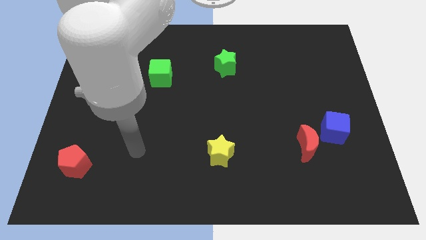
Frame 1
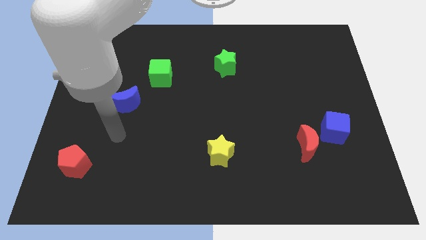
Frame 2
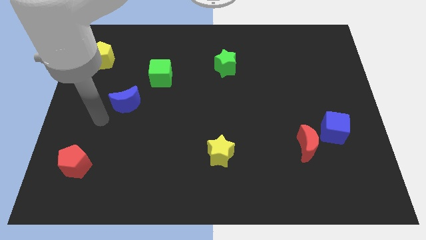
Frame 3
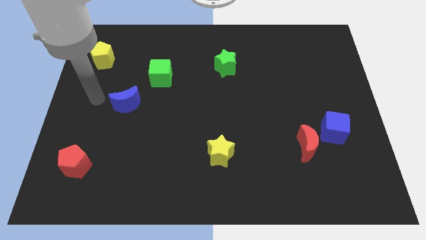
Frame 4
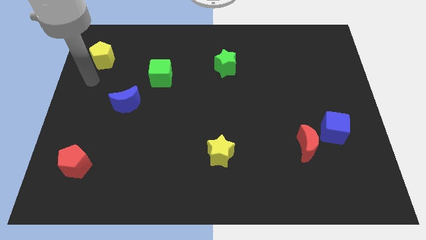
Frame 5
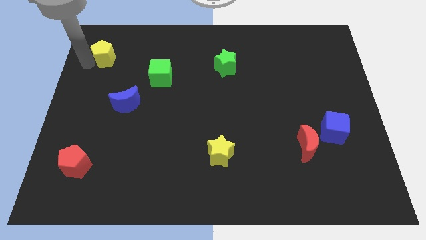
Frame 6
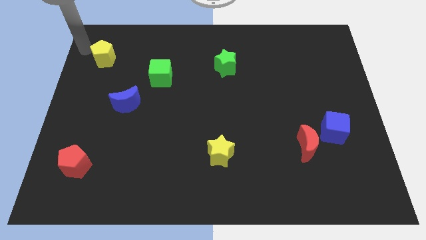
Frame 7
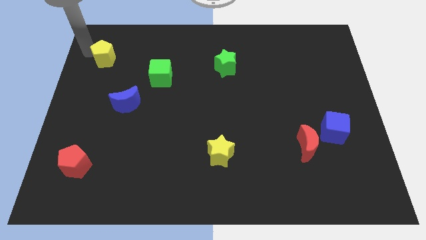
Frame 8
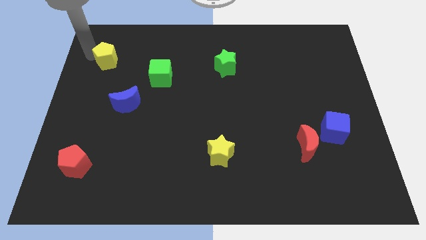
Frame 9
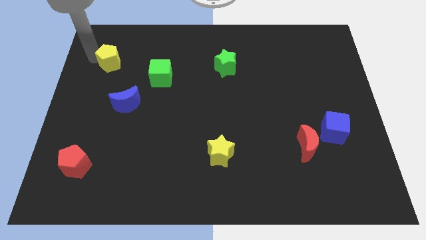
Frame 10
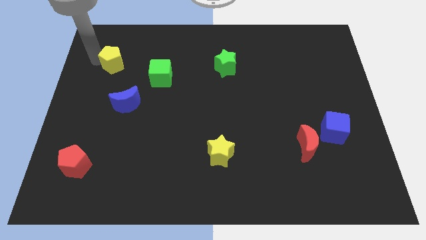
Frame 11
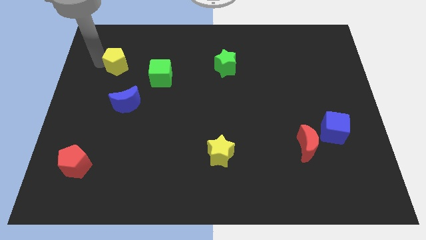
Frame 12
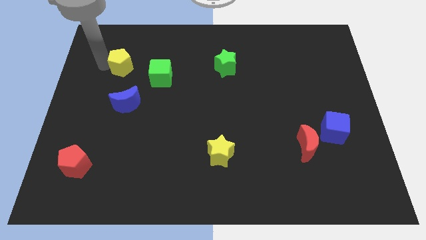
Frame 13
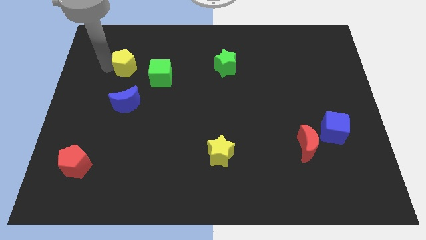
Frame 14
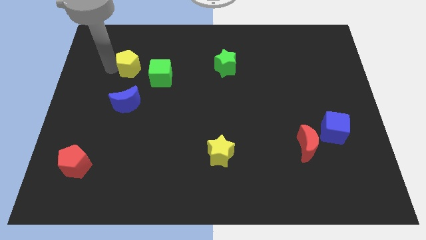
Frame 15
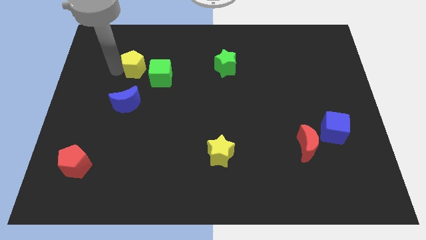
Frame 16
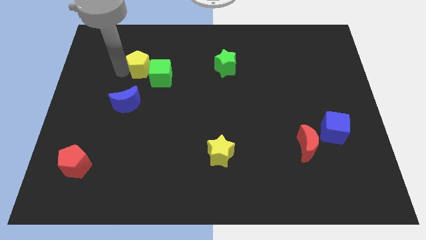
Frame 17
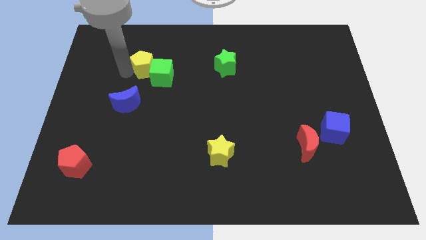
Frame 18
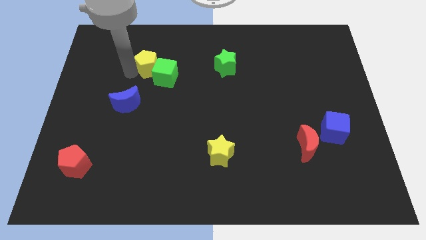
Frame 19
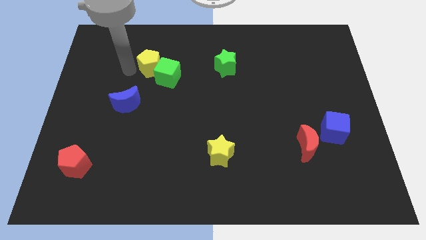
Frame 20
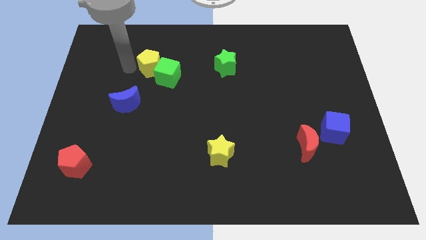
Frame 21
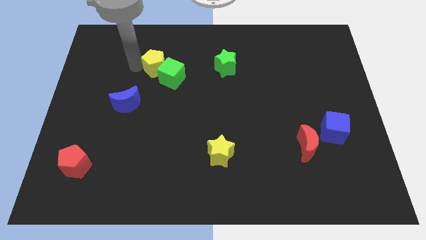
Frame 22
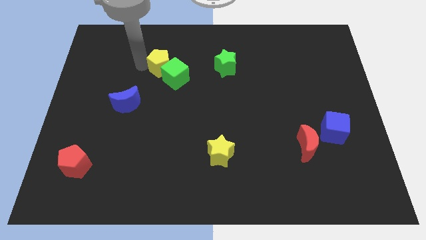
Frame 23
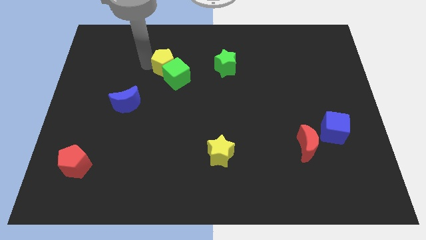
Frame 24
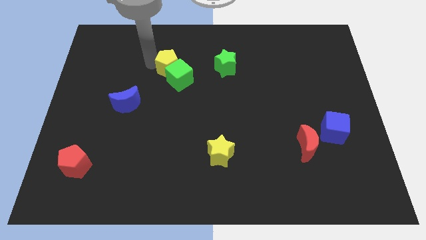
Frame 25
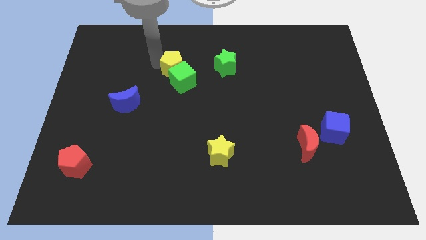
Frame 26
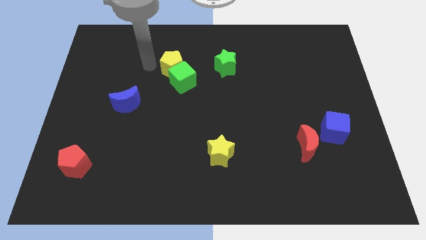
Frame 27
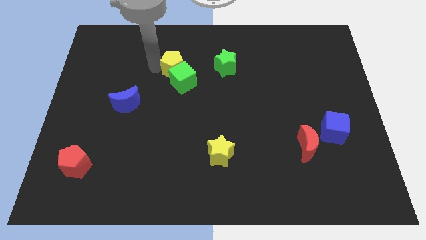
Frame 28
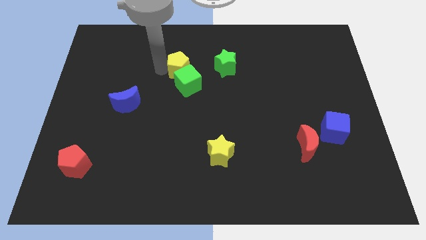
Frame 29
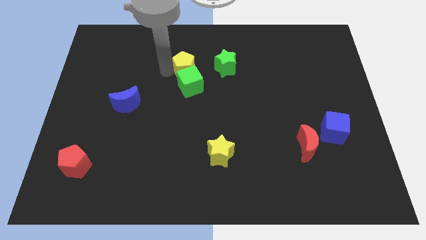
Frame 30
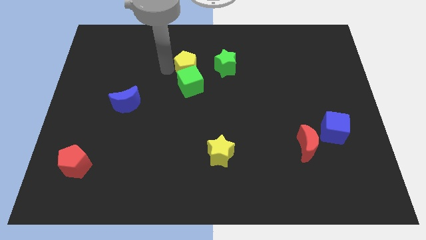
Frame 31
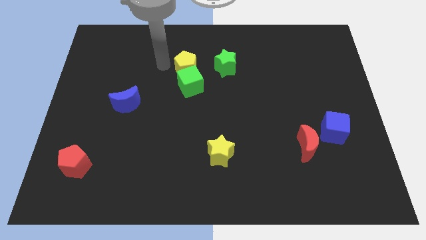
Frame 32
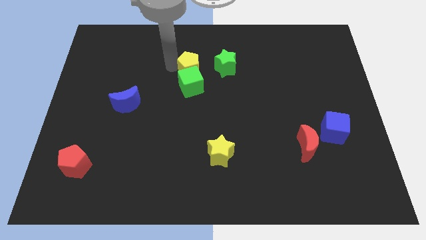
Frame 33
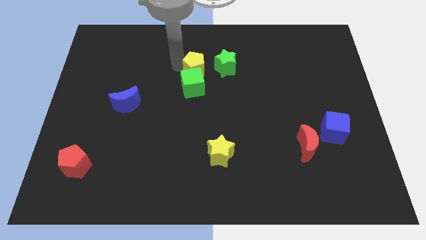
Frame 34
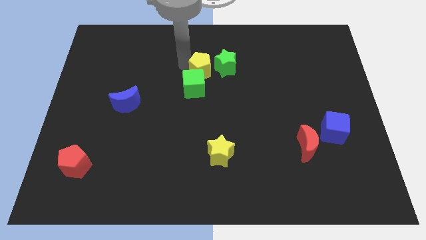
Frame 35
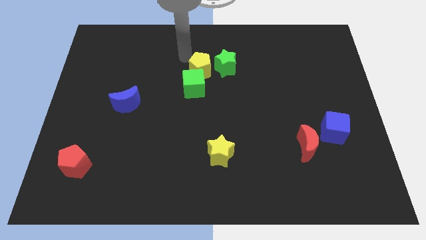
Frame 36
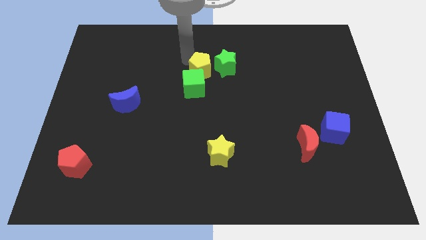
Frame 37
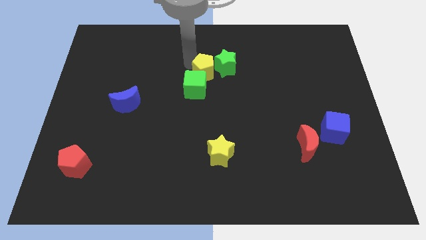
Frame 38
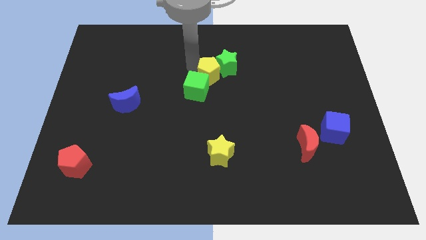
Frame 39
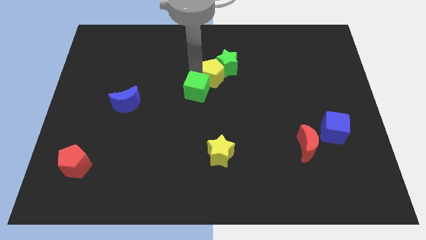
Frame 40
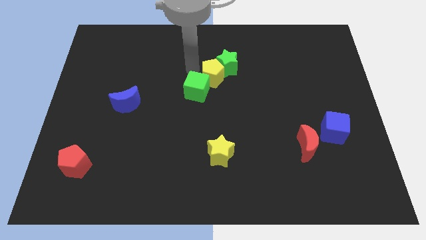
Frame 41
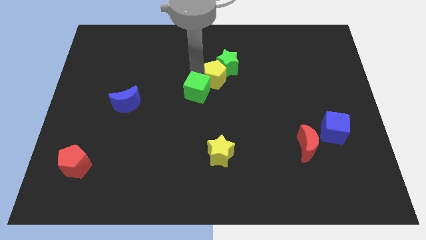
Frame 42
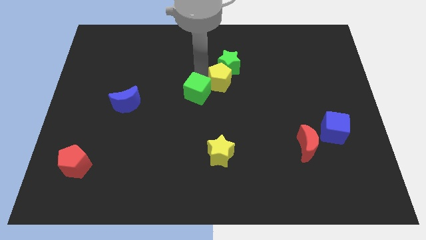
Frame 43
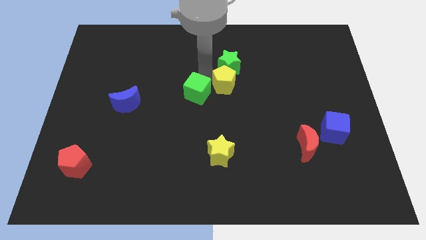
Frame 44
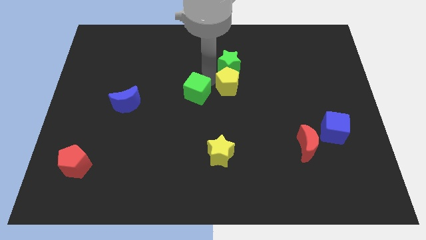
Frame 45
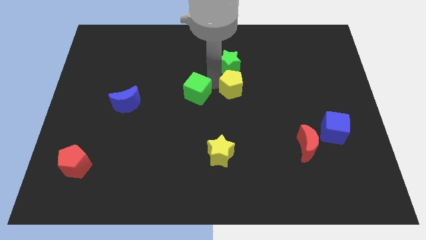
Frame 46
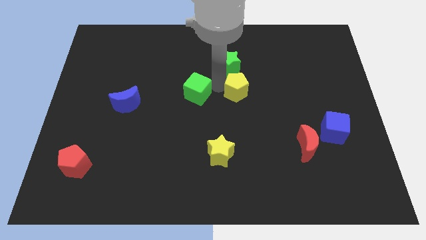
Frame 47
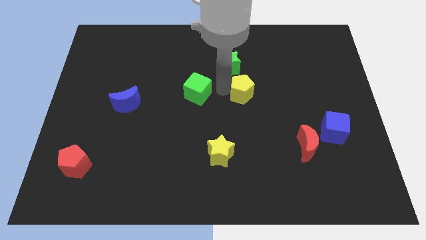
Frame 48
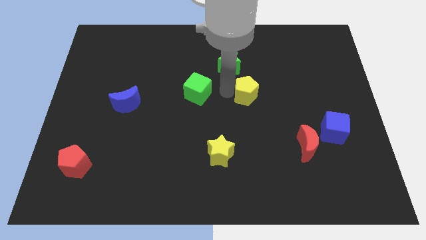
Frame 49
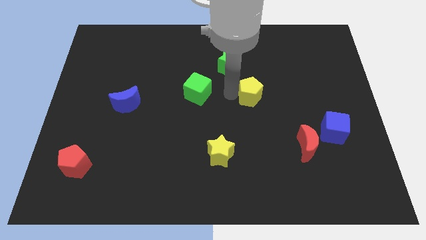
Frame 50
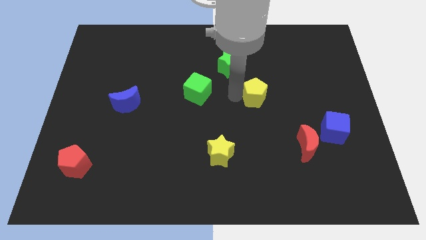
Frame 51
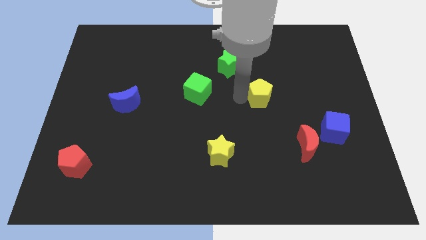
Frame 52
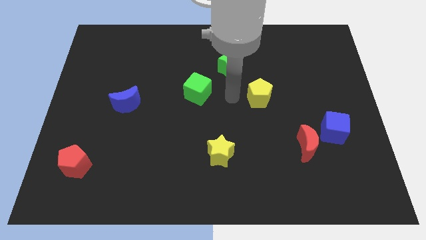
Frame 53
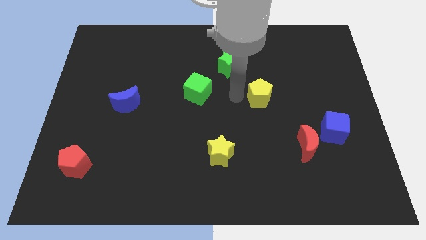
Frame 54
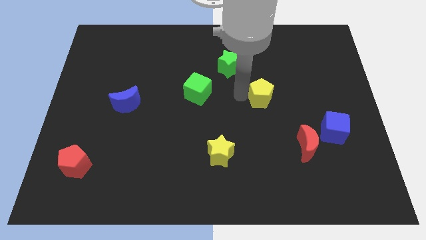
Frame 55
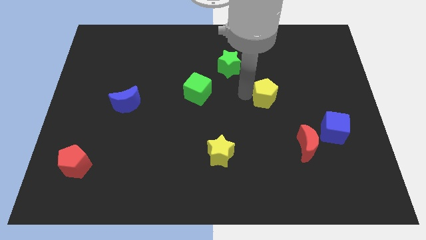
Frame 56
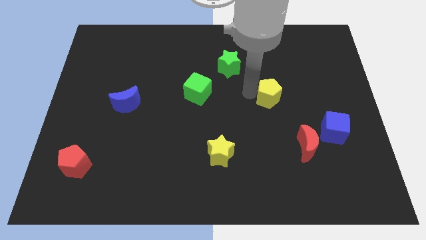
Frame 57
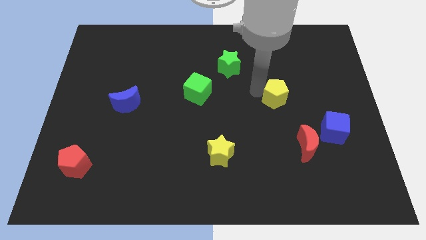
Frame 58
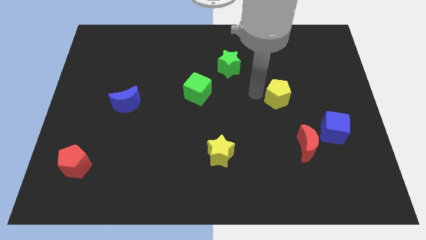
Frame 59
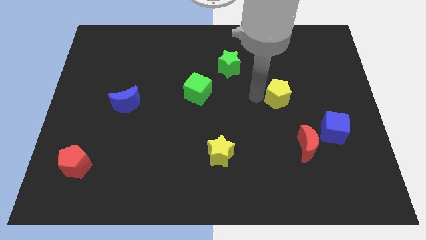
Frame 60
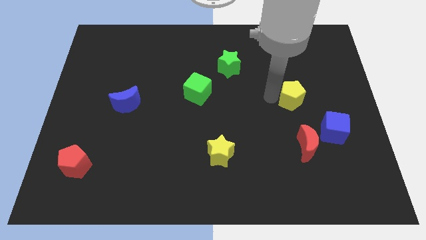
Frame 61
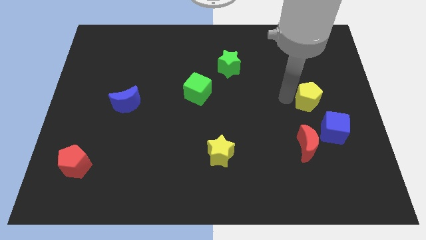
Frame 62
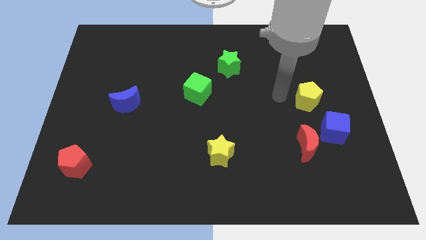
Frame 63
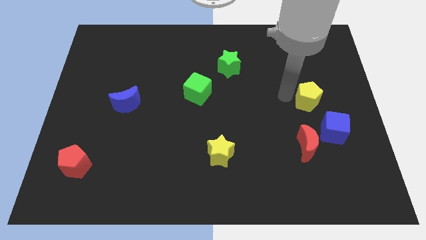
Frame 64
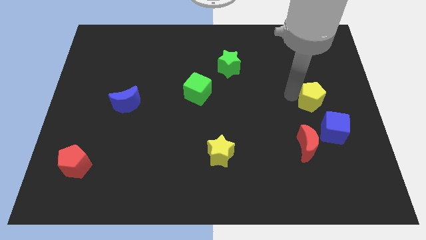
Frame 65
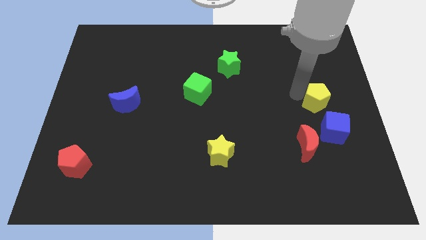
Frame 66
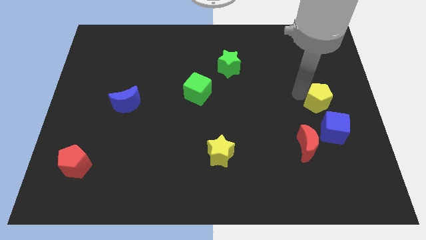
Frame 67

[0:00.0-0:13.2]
move the yellow pentagon to the right side
